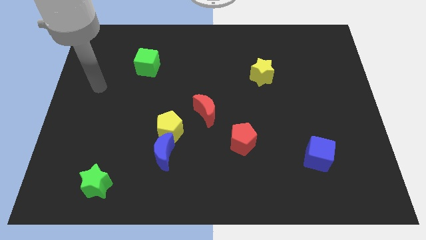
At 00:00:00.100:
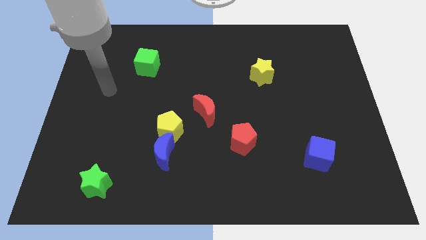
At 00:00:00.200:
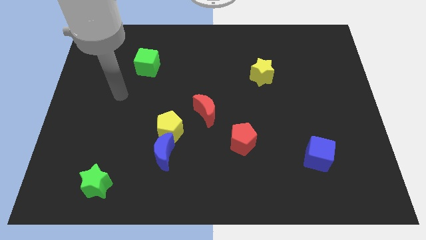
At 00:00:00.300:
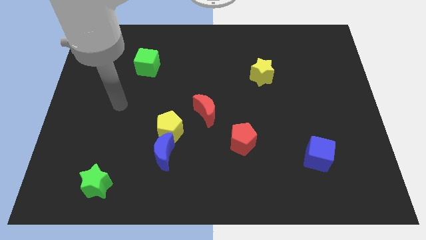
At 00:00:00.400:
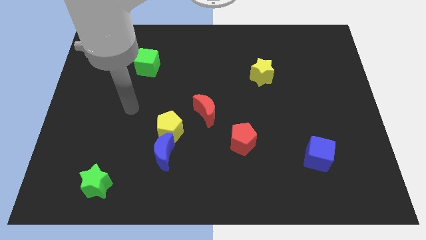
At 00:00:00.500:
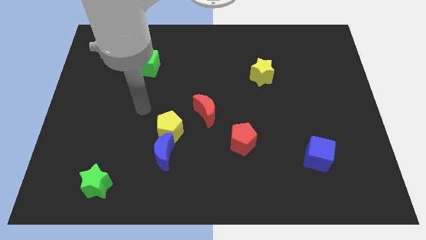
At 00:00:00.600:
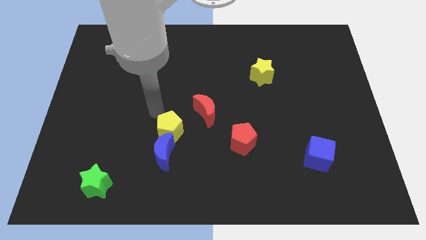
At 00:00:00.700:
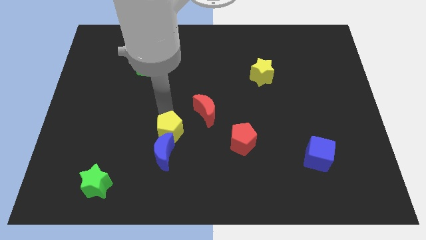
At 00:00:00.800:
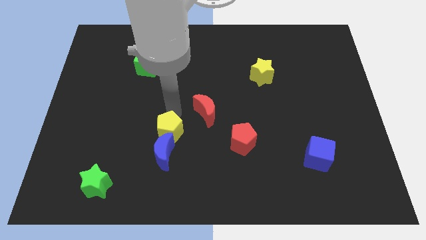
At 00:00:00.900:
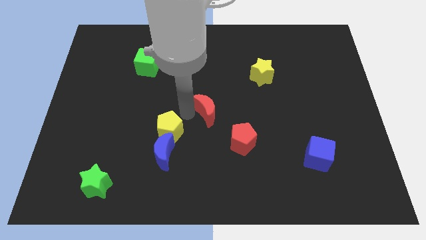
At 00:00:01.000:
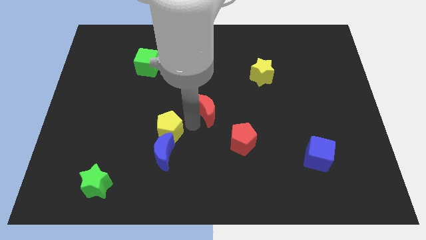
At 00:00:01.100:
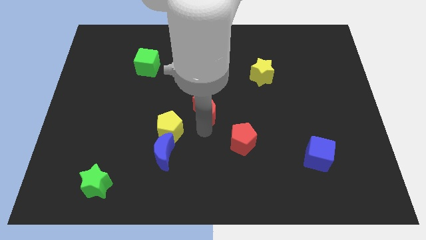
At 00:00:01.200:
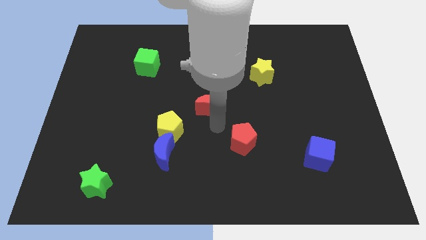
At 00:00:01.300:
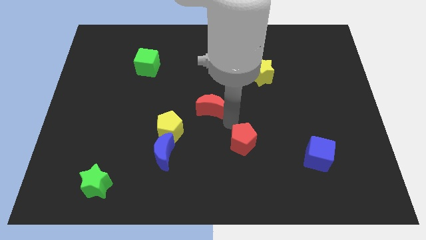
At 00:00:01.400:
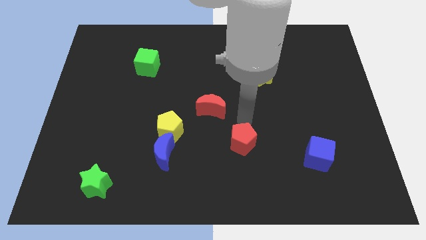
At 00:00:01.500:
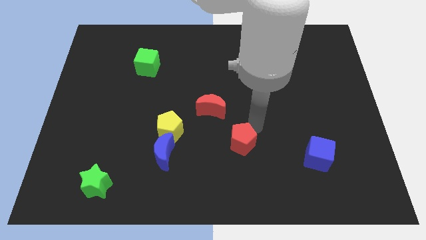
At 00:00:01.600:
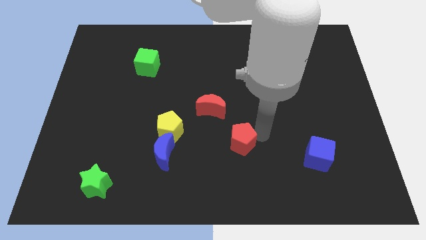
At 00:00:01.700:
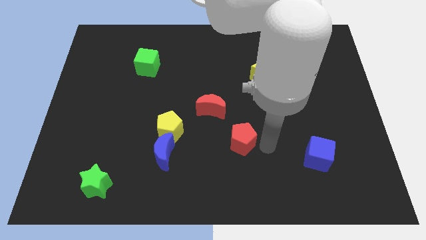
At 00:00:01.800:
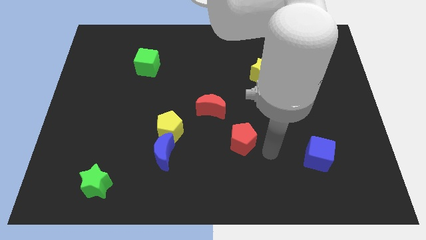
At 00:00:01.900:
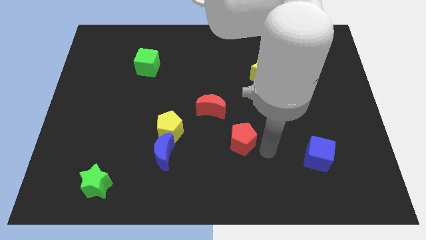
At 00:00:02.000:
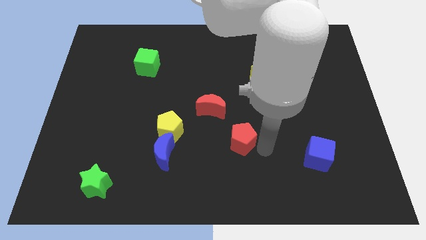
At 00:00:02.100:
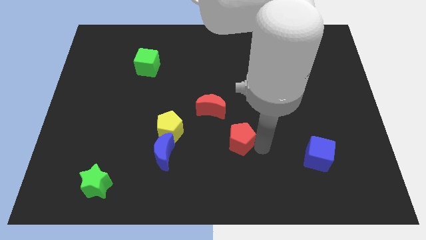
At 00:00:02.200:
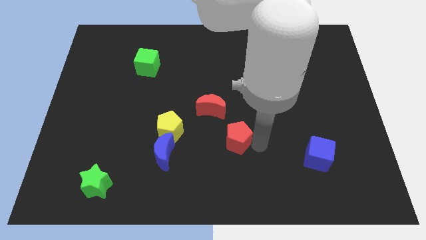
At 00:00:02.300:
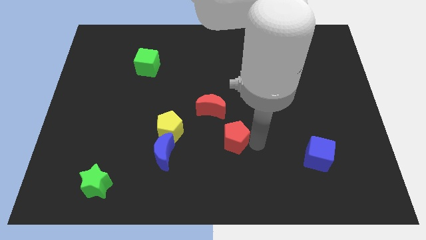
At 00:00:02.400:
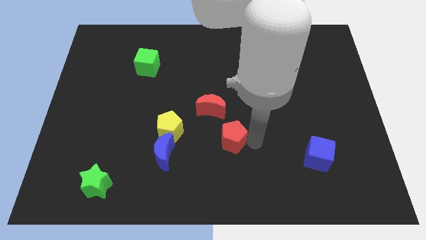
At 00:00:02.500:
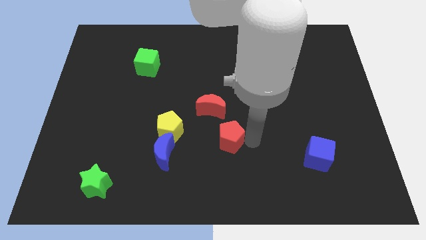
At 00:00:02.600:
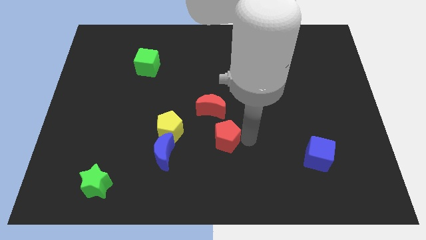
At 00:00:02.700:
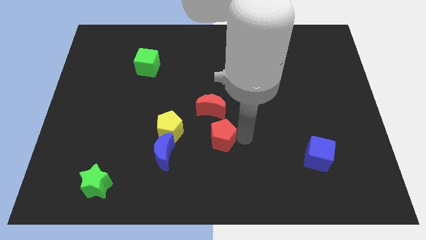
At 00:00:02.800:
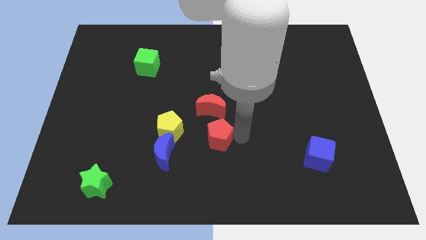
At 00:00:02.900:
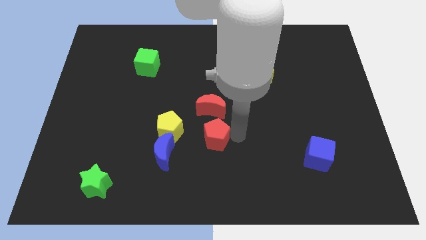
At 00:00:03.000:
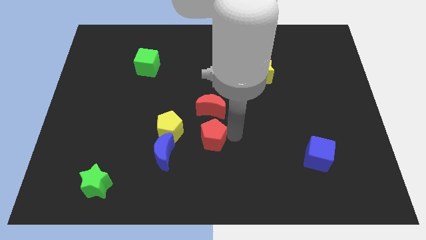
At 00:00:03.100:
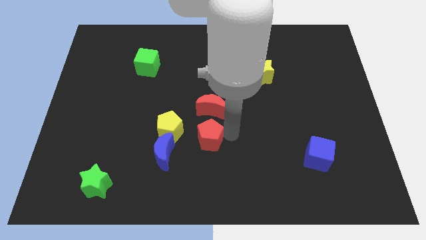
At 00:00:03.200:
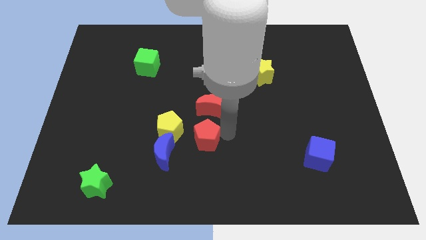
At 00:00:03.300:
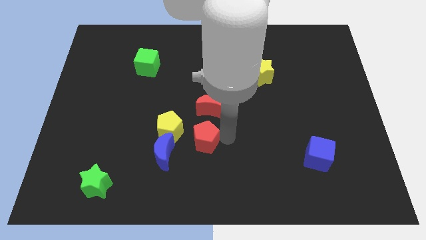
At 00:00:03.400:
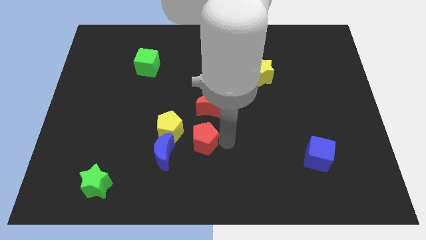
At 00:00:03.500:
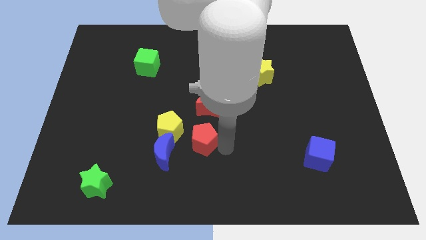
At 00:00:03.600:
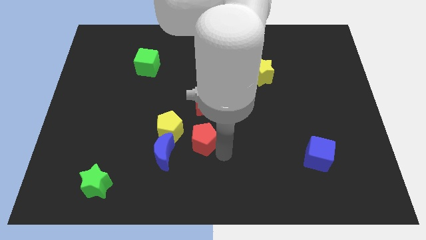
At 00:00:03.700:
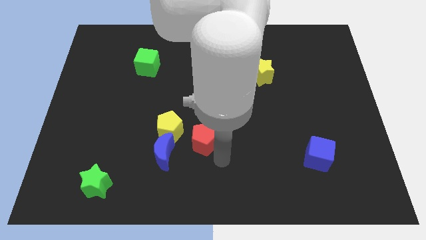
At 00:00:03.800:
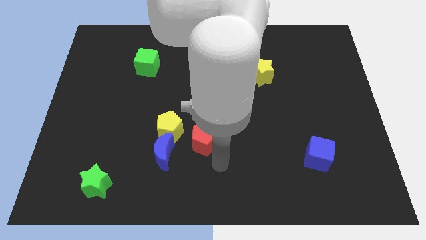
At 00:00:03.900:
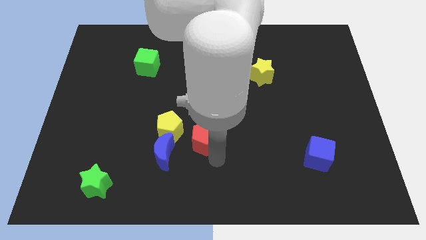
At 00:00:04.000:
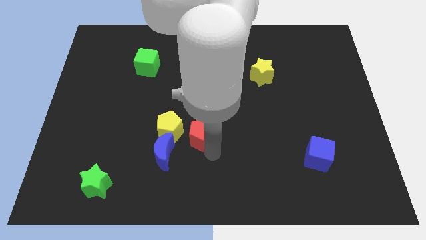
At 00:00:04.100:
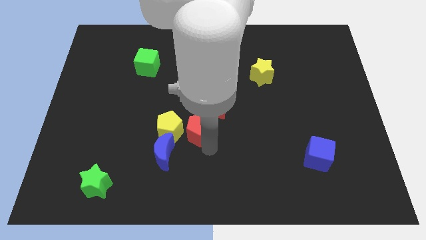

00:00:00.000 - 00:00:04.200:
move the red pentagon a little upwards and then to the left

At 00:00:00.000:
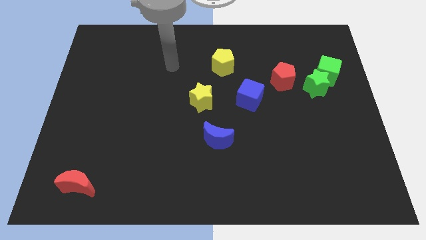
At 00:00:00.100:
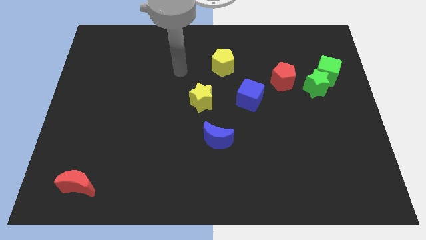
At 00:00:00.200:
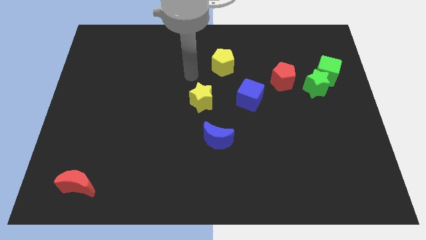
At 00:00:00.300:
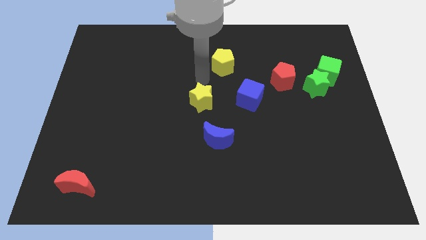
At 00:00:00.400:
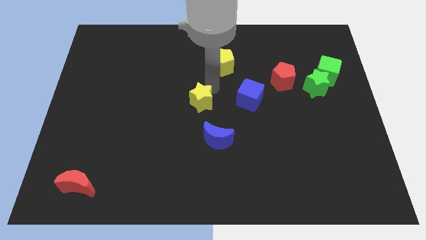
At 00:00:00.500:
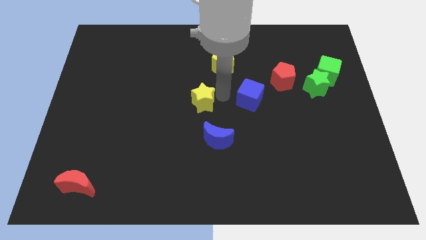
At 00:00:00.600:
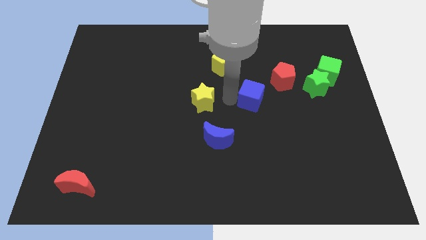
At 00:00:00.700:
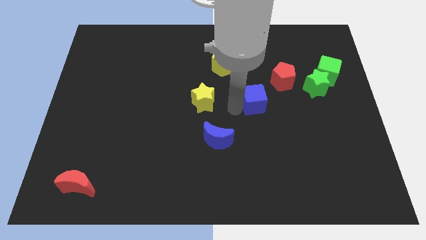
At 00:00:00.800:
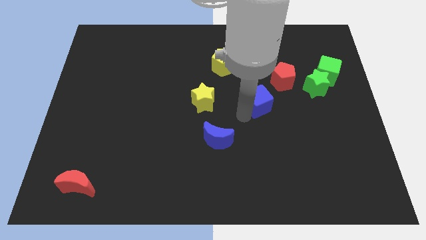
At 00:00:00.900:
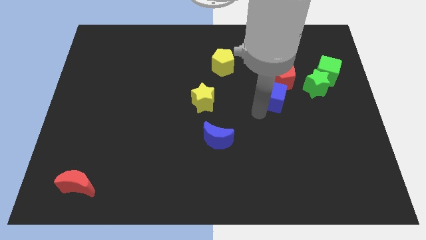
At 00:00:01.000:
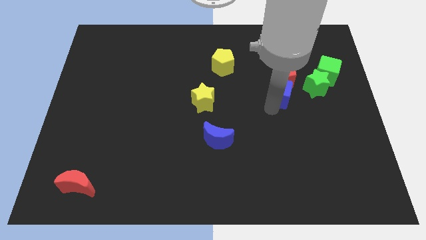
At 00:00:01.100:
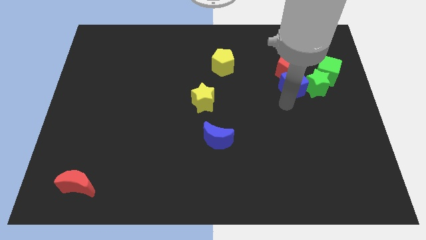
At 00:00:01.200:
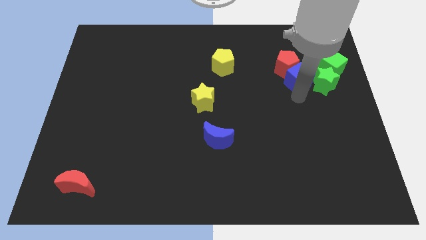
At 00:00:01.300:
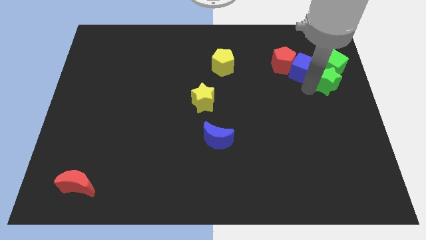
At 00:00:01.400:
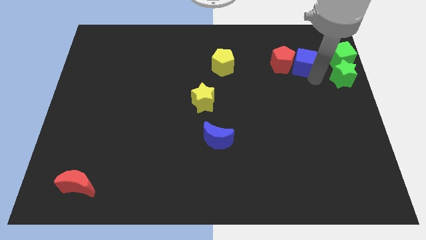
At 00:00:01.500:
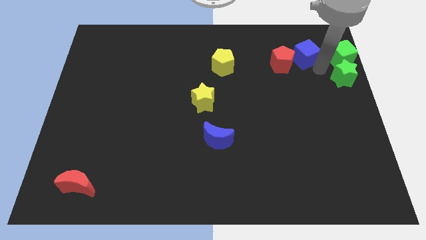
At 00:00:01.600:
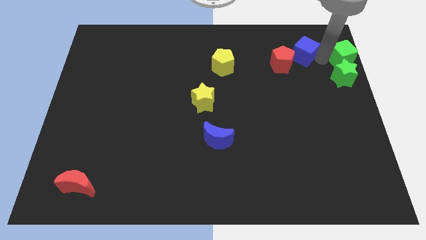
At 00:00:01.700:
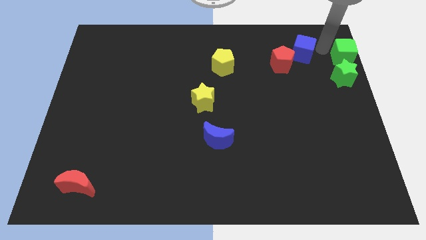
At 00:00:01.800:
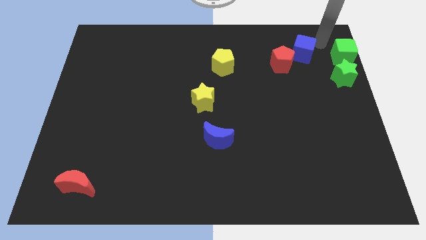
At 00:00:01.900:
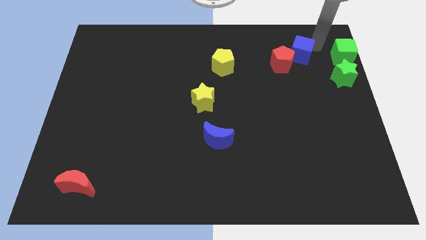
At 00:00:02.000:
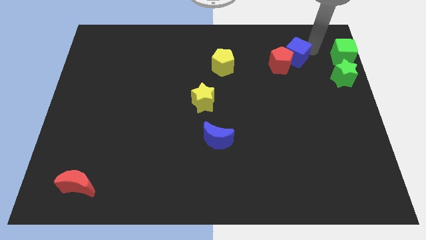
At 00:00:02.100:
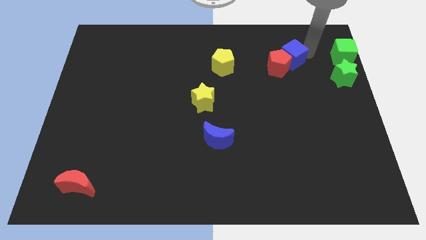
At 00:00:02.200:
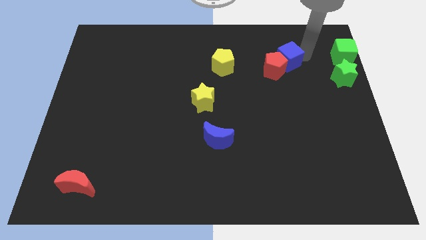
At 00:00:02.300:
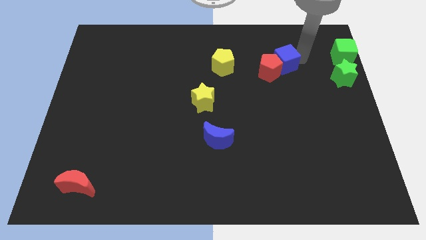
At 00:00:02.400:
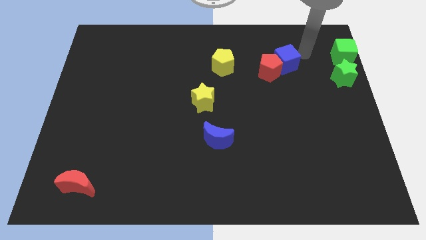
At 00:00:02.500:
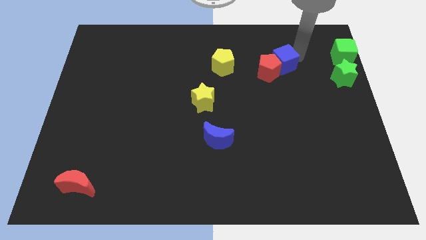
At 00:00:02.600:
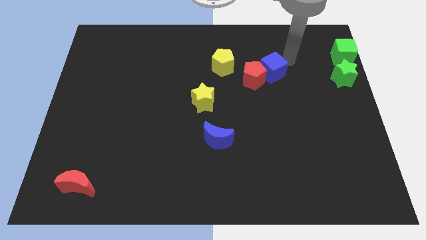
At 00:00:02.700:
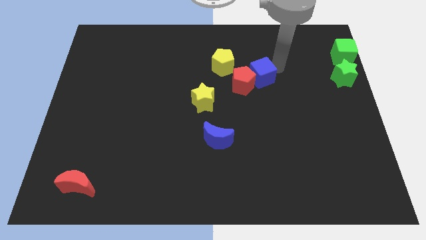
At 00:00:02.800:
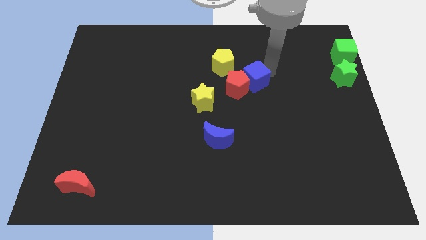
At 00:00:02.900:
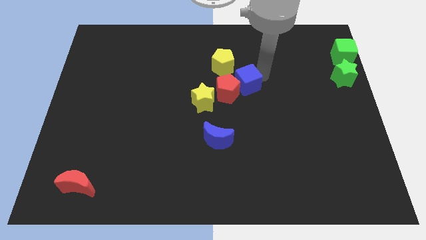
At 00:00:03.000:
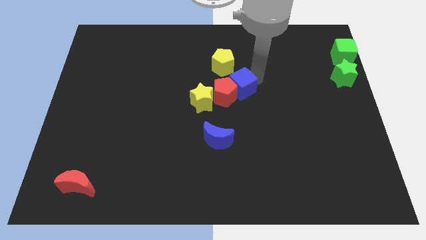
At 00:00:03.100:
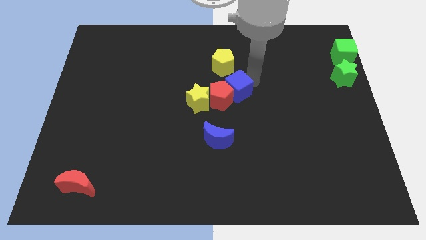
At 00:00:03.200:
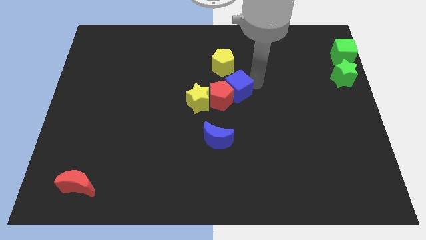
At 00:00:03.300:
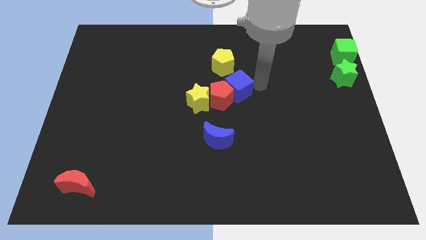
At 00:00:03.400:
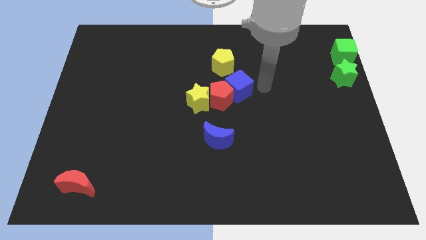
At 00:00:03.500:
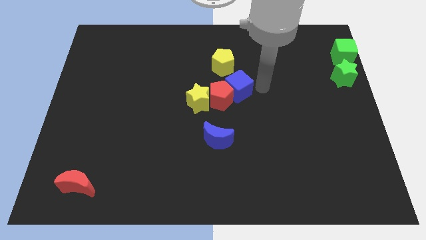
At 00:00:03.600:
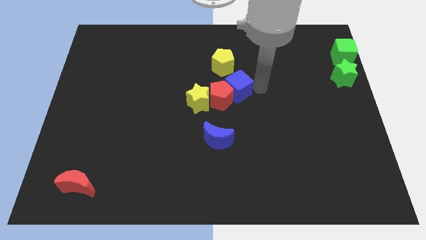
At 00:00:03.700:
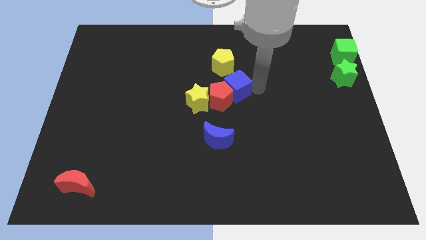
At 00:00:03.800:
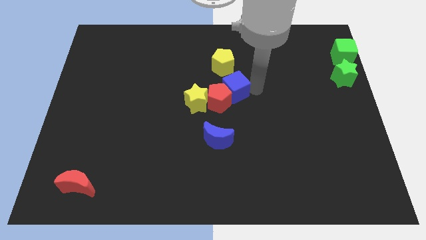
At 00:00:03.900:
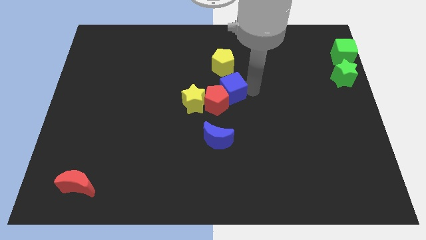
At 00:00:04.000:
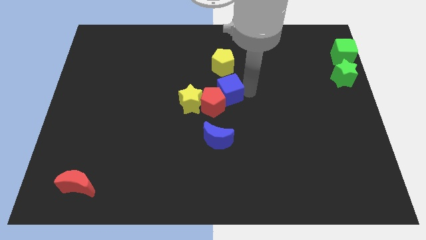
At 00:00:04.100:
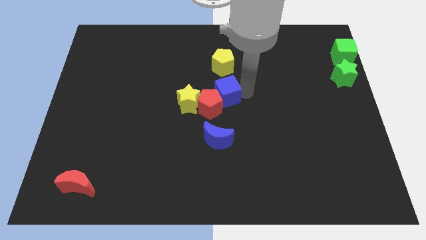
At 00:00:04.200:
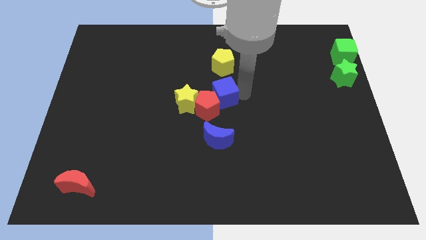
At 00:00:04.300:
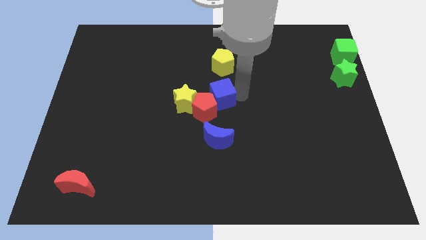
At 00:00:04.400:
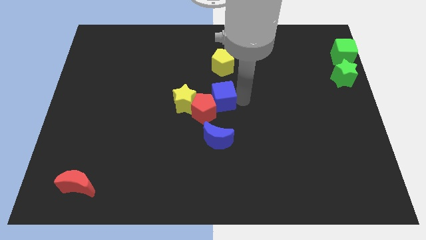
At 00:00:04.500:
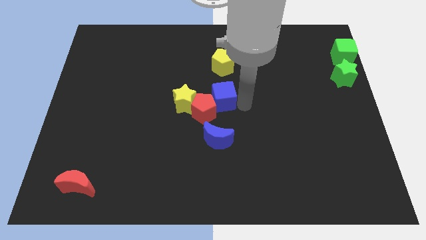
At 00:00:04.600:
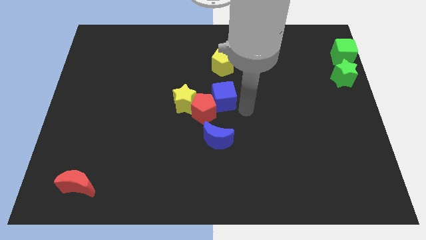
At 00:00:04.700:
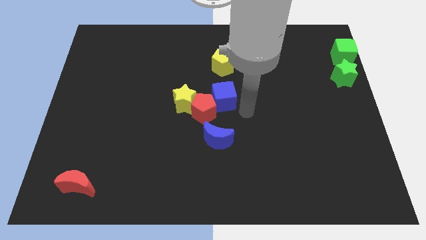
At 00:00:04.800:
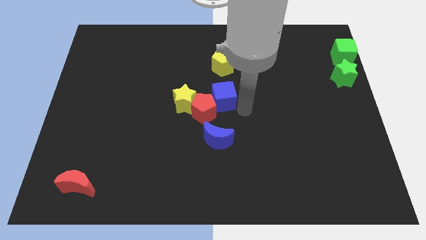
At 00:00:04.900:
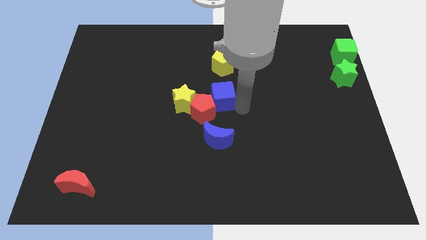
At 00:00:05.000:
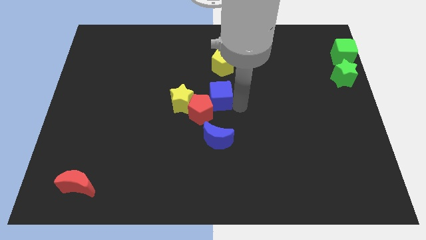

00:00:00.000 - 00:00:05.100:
slightly push the blue cube left
